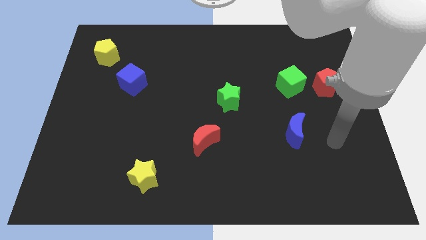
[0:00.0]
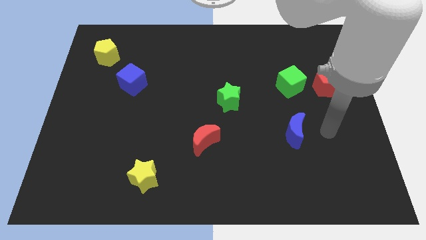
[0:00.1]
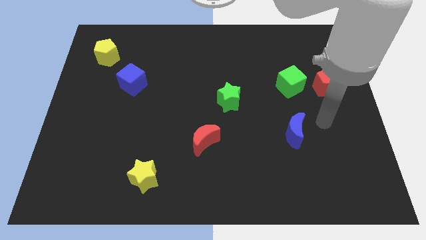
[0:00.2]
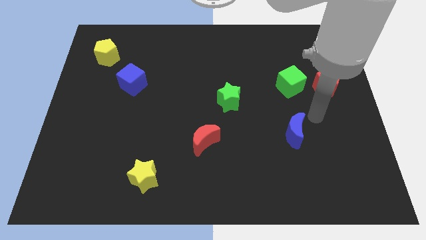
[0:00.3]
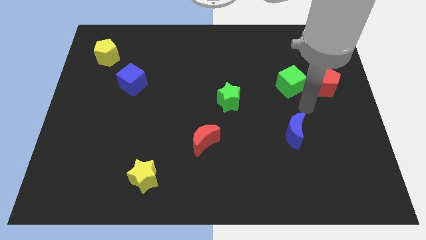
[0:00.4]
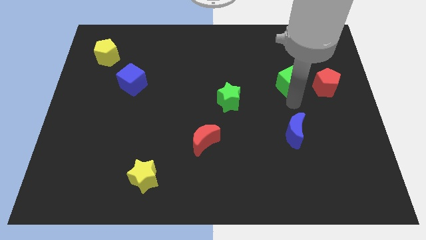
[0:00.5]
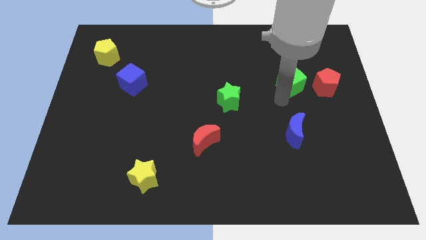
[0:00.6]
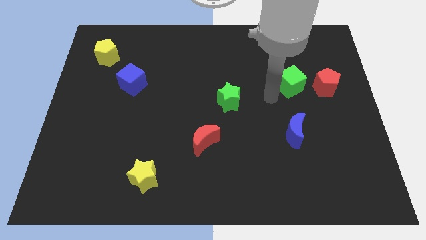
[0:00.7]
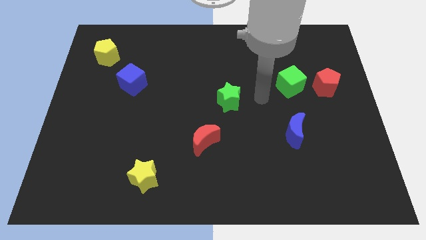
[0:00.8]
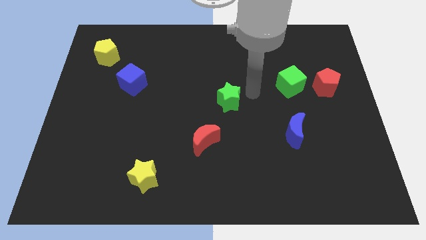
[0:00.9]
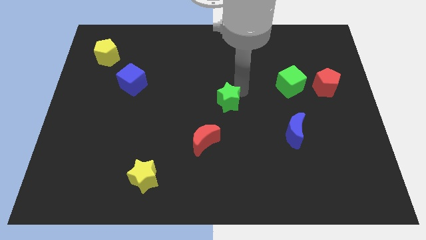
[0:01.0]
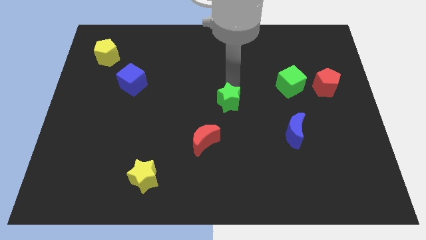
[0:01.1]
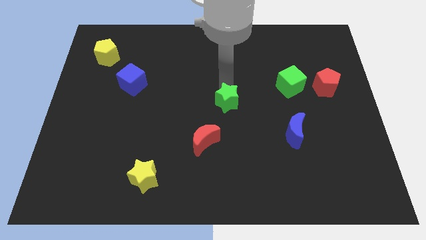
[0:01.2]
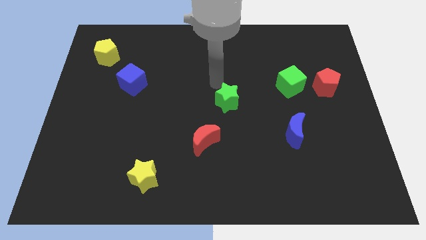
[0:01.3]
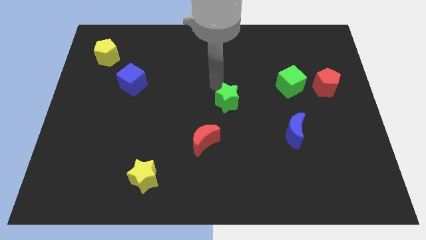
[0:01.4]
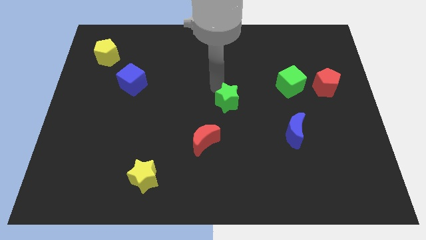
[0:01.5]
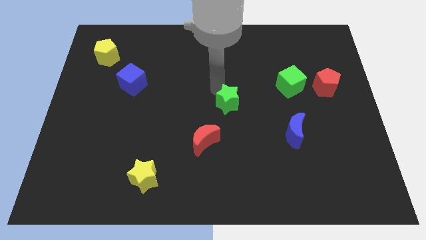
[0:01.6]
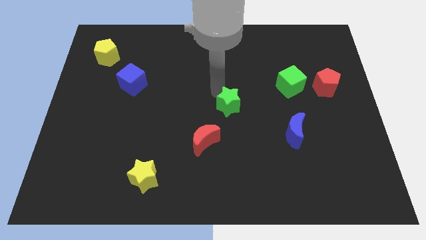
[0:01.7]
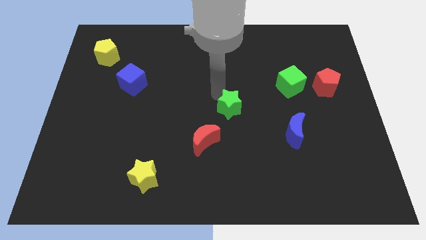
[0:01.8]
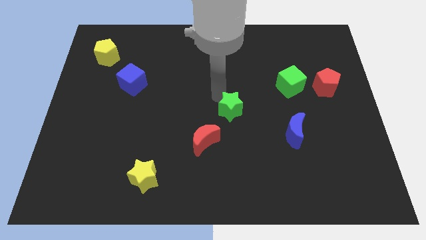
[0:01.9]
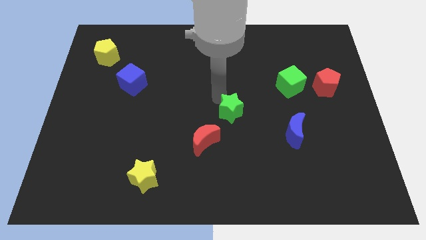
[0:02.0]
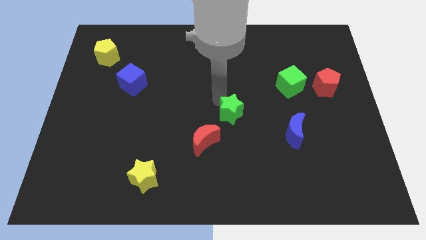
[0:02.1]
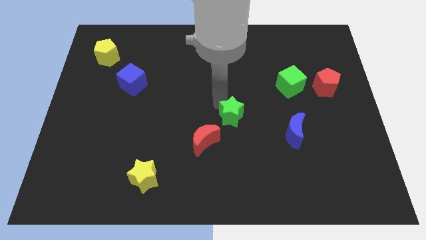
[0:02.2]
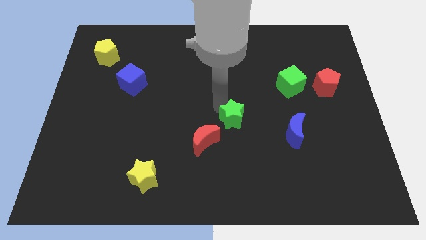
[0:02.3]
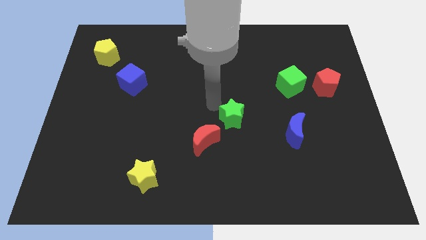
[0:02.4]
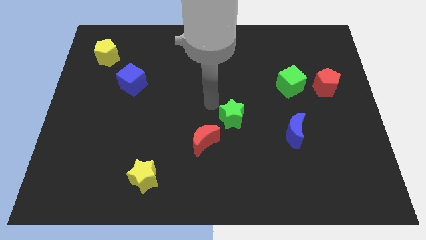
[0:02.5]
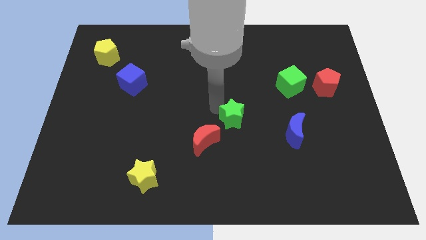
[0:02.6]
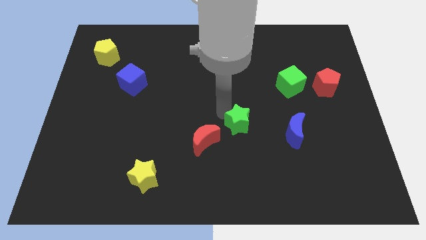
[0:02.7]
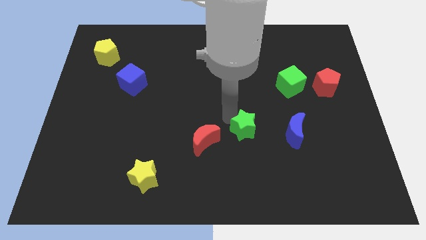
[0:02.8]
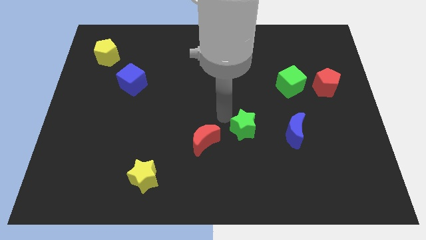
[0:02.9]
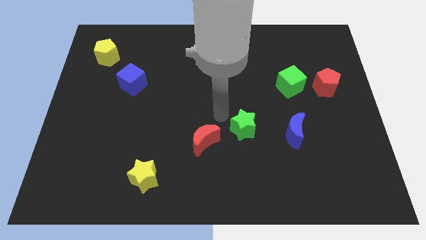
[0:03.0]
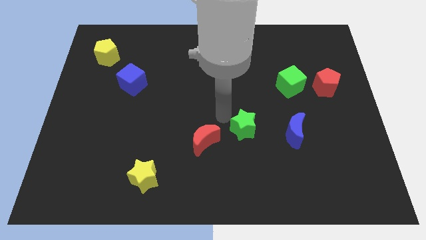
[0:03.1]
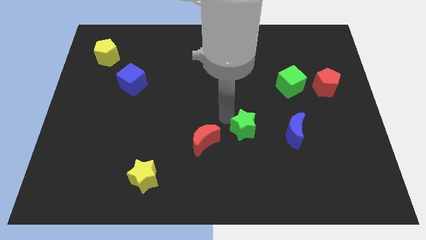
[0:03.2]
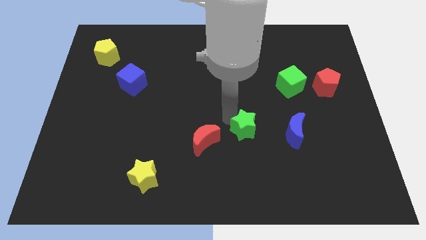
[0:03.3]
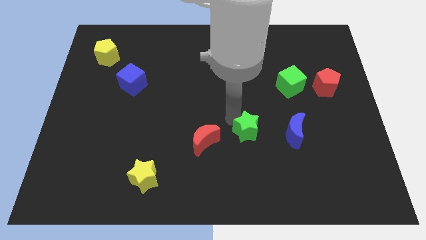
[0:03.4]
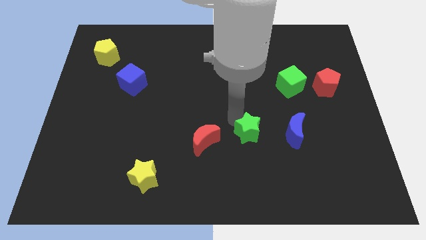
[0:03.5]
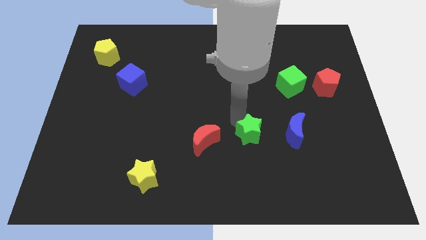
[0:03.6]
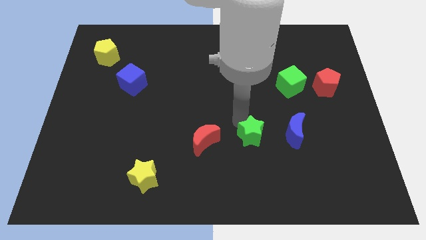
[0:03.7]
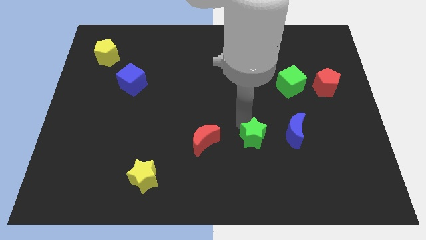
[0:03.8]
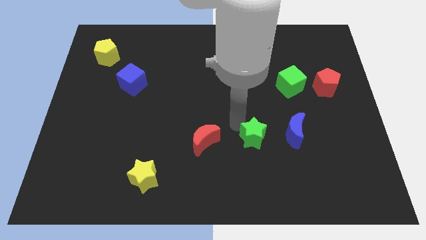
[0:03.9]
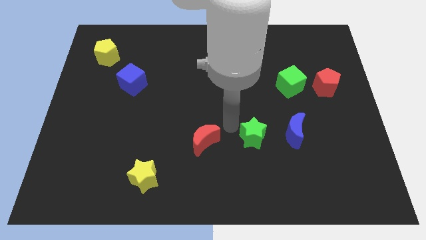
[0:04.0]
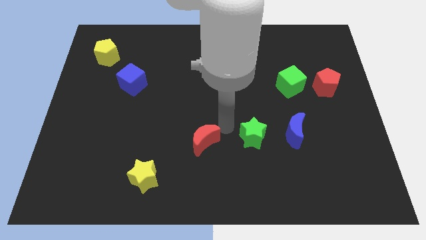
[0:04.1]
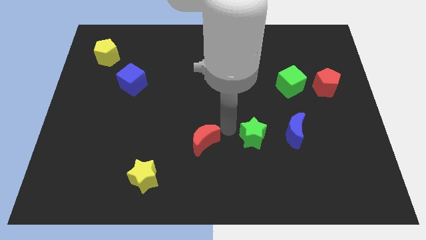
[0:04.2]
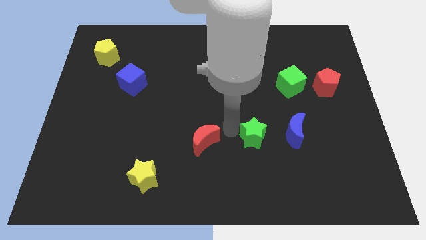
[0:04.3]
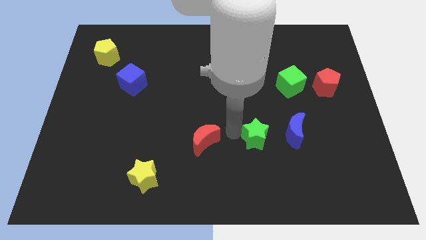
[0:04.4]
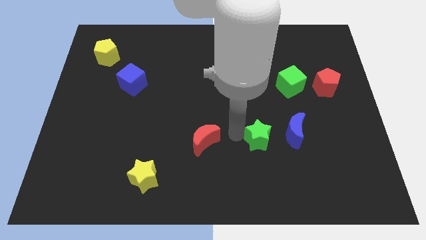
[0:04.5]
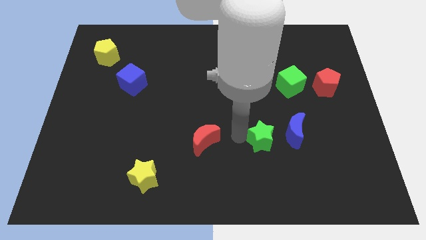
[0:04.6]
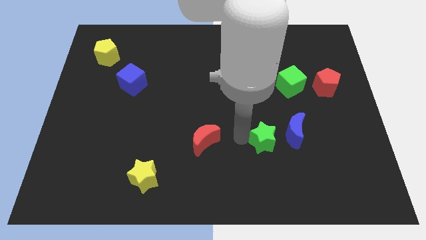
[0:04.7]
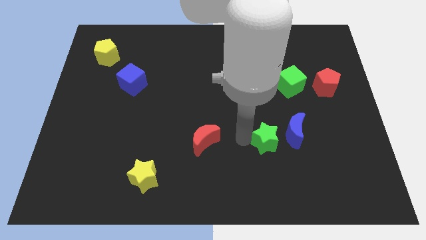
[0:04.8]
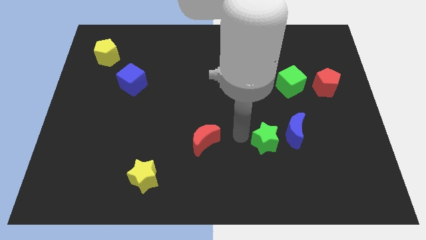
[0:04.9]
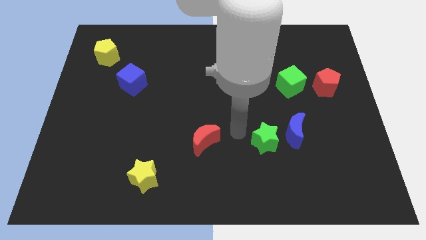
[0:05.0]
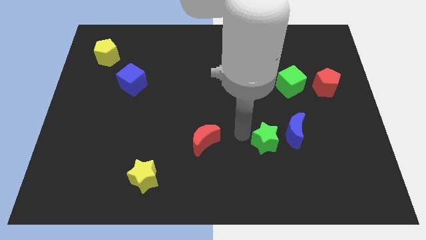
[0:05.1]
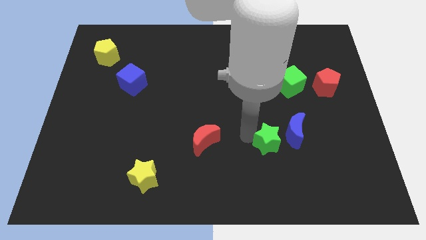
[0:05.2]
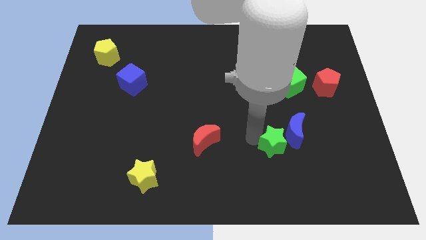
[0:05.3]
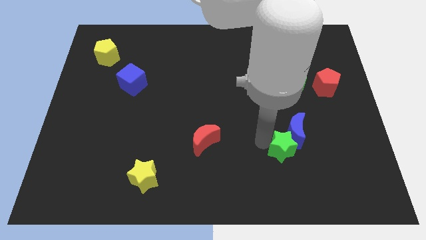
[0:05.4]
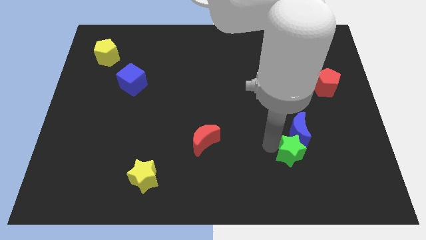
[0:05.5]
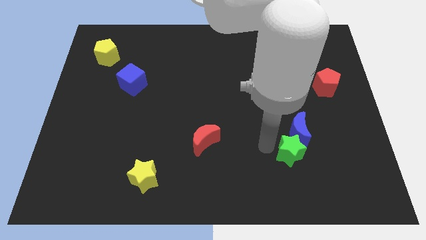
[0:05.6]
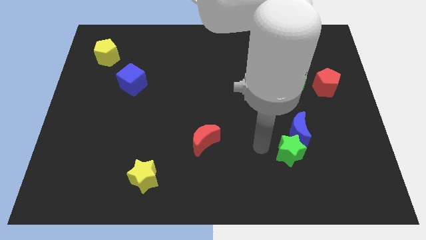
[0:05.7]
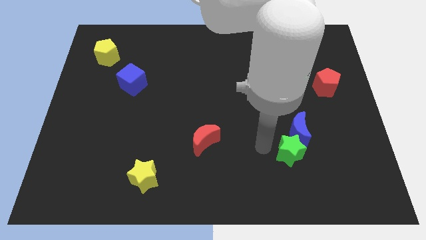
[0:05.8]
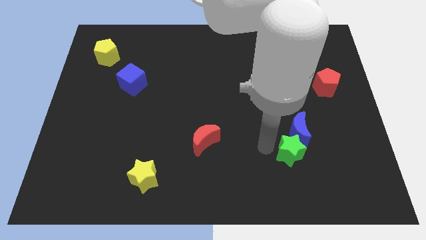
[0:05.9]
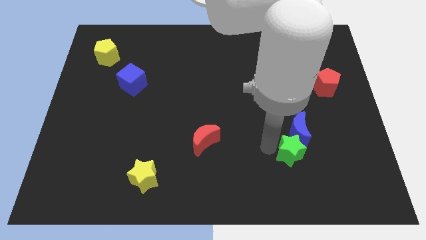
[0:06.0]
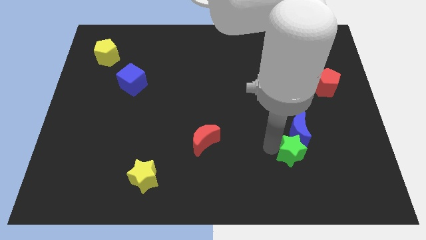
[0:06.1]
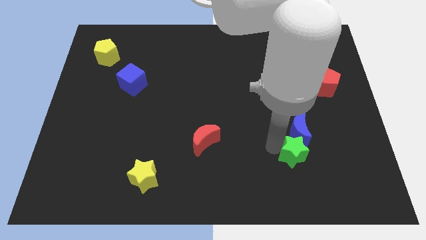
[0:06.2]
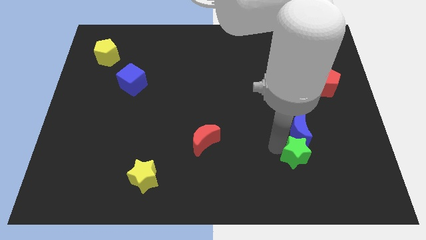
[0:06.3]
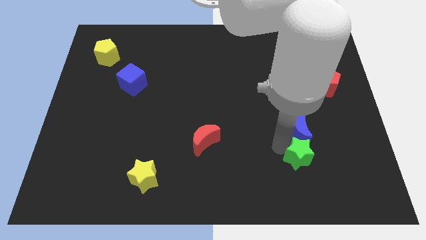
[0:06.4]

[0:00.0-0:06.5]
move the green star diagonally down and to the right of the blue moon
